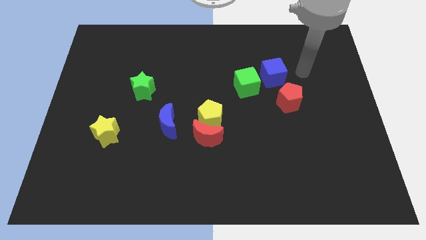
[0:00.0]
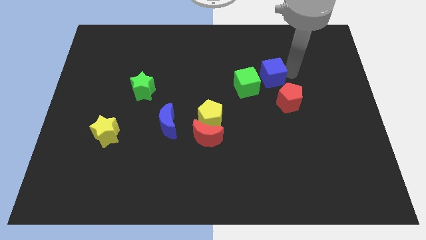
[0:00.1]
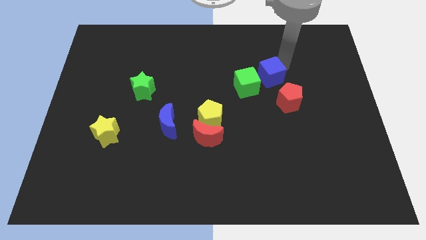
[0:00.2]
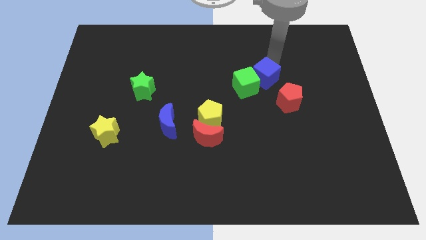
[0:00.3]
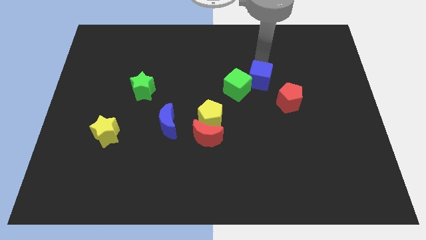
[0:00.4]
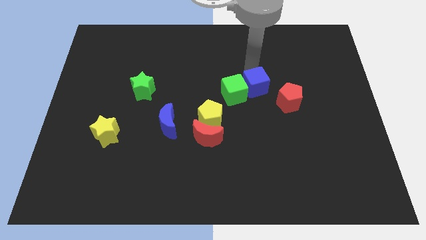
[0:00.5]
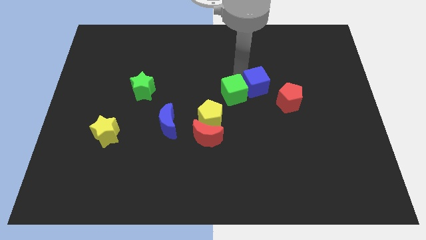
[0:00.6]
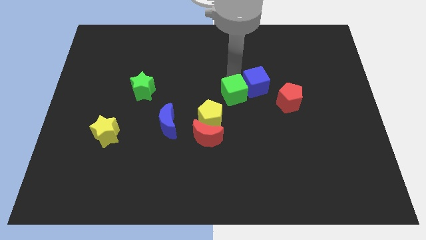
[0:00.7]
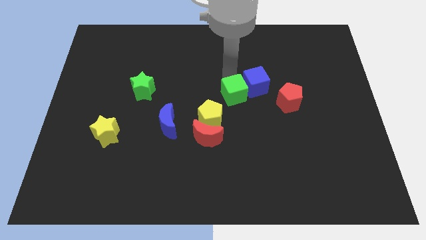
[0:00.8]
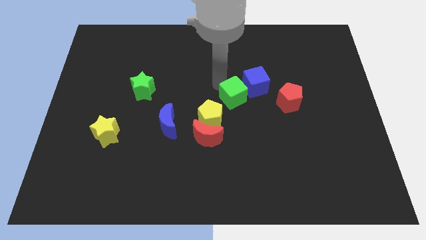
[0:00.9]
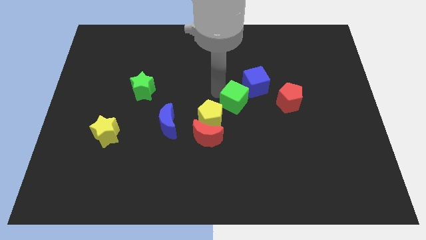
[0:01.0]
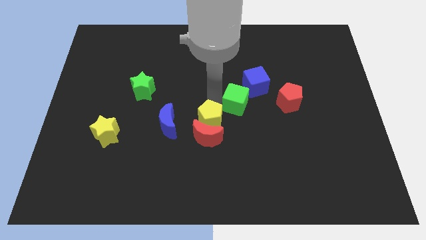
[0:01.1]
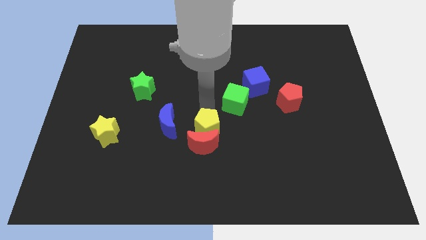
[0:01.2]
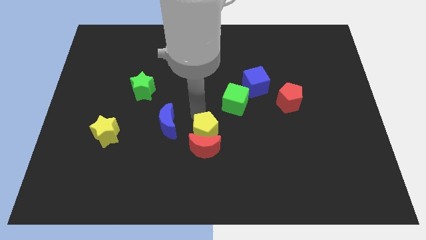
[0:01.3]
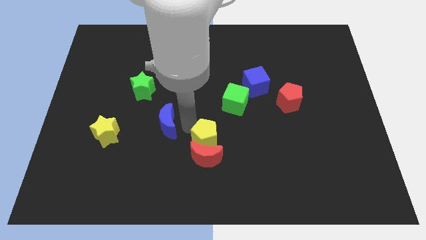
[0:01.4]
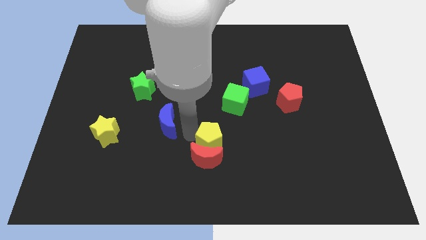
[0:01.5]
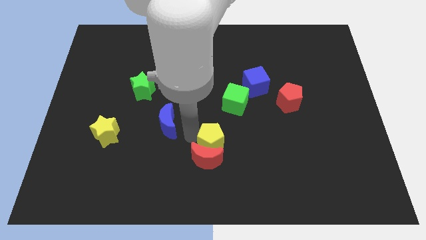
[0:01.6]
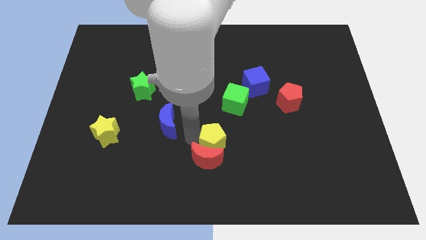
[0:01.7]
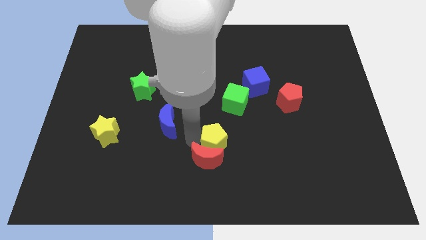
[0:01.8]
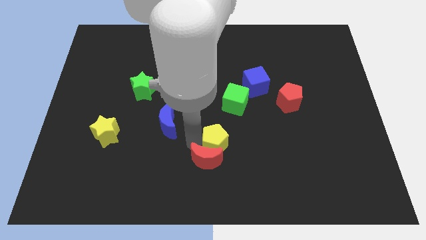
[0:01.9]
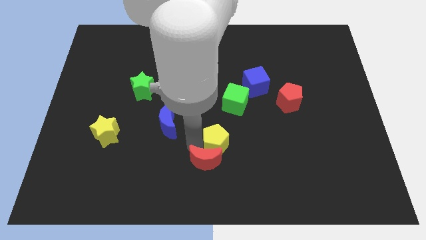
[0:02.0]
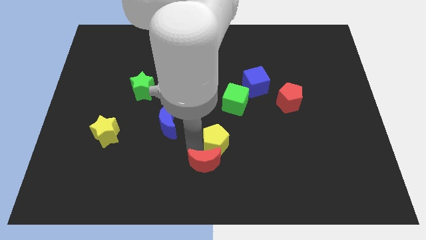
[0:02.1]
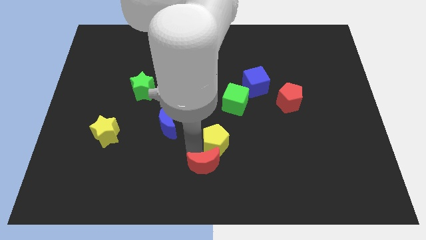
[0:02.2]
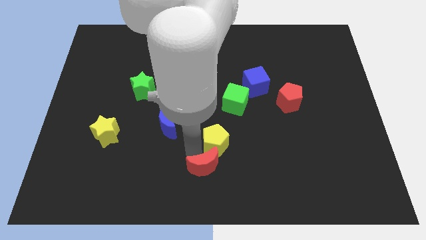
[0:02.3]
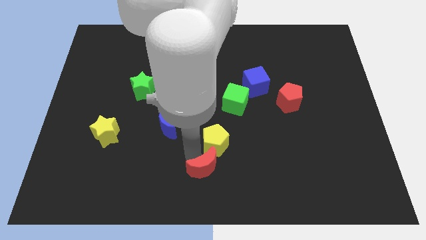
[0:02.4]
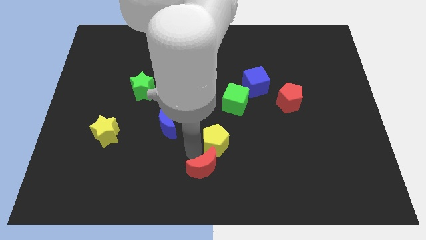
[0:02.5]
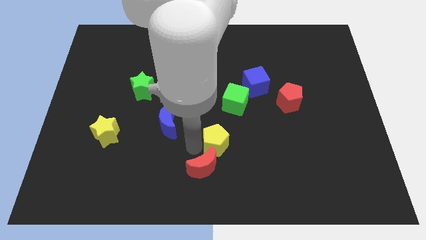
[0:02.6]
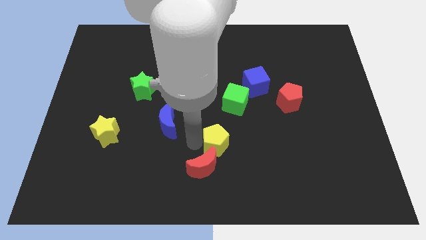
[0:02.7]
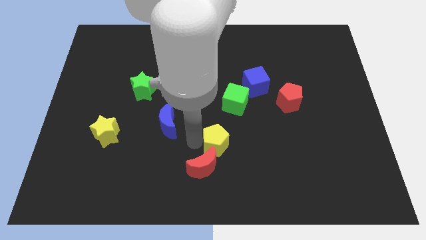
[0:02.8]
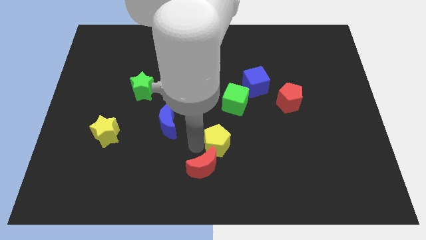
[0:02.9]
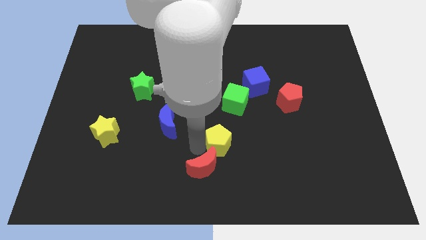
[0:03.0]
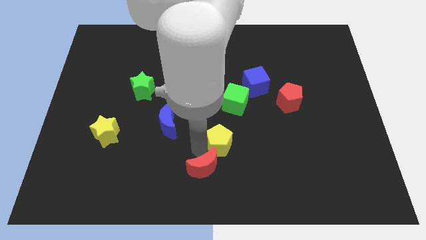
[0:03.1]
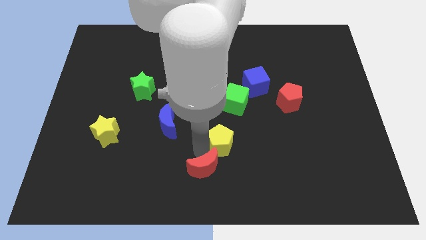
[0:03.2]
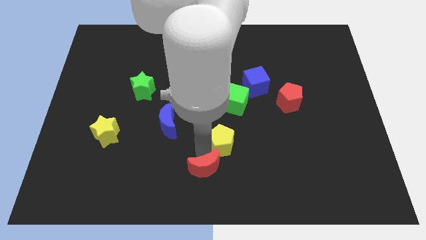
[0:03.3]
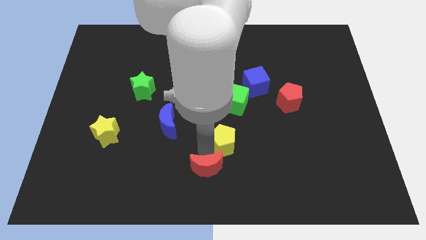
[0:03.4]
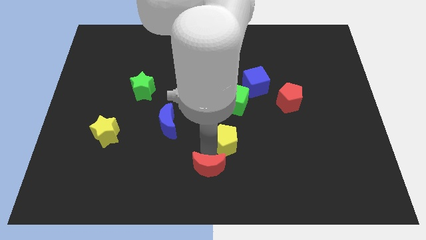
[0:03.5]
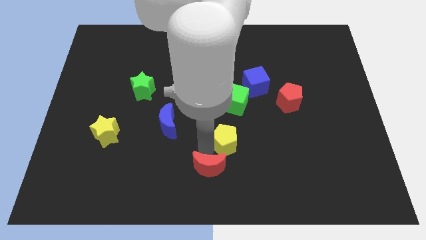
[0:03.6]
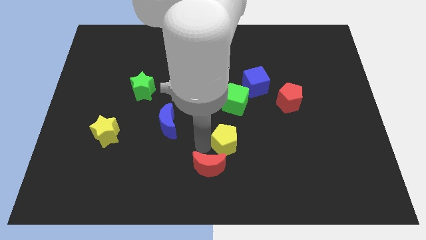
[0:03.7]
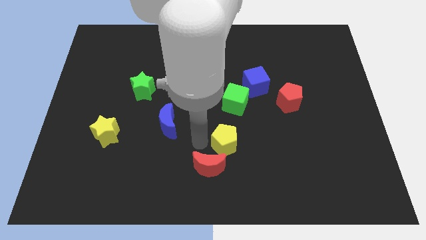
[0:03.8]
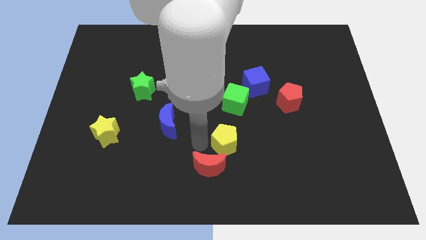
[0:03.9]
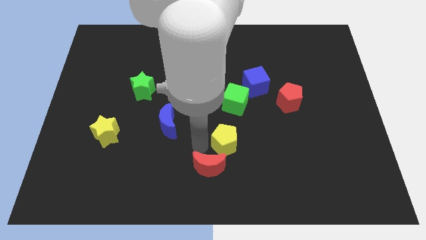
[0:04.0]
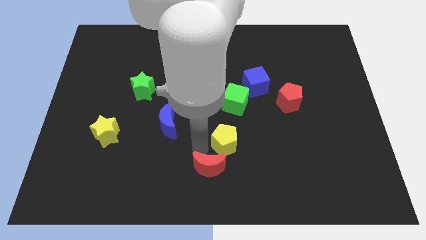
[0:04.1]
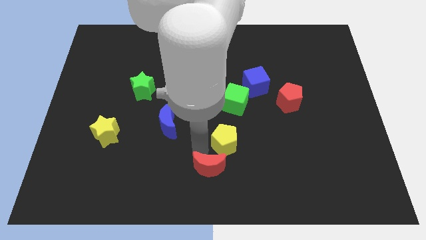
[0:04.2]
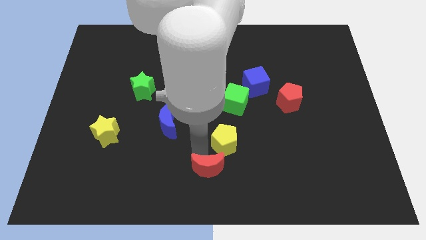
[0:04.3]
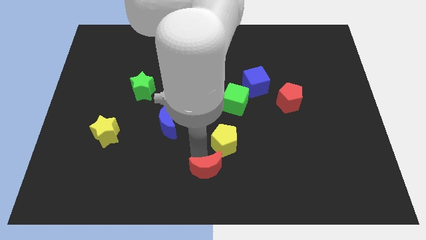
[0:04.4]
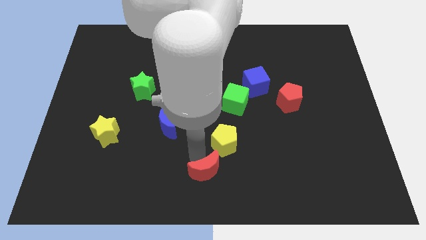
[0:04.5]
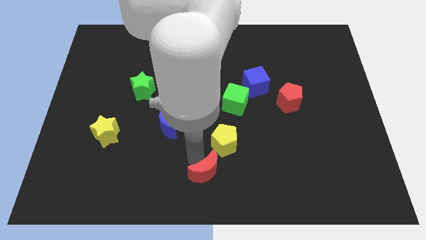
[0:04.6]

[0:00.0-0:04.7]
separate the red moon from the yellow pentagon and blue moon

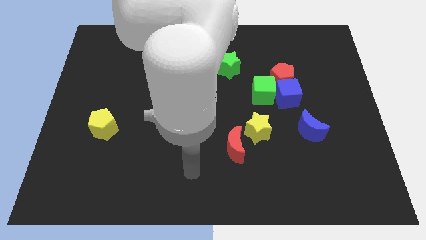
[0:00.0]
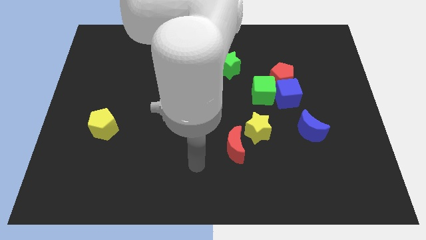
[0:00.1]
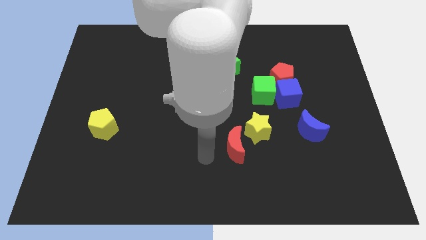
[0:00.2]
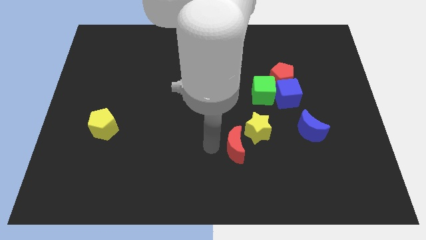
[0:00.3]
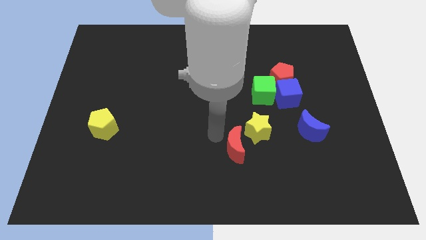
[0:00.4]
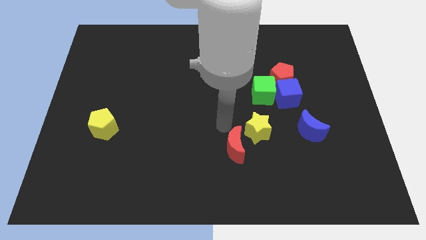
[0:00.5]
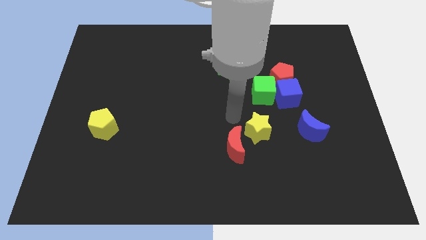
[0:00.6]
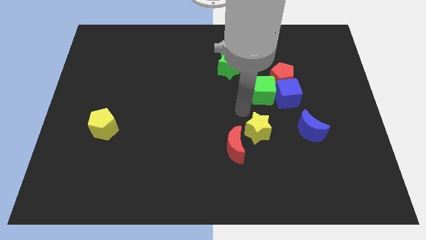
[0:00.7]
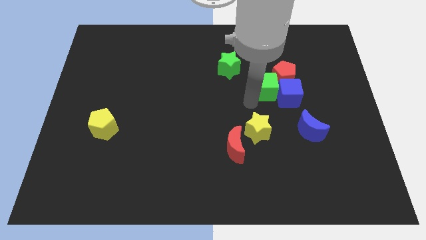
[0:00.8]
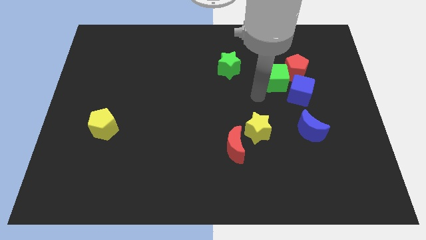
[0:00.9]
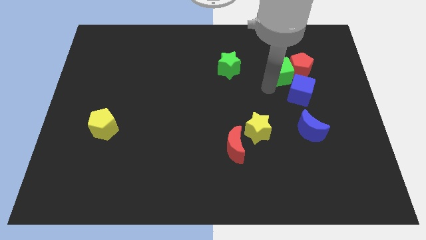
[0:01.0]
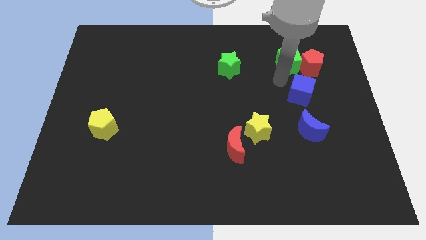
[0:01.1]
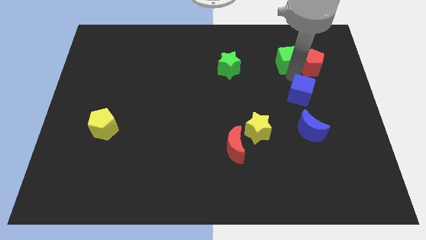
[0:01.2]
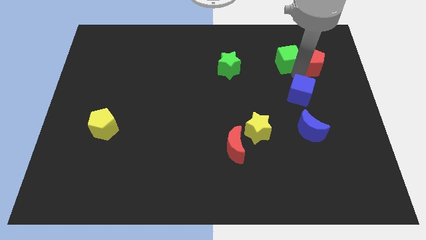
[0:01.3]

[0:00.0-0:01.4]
pull the blue cube apart from the red pentagon and green cube

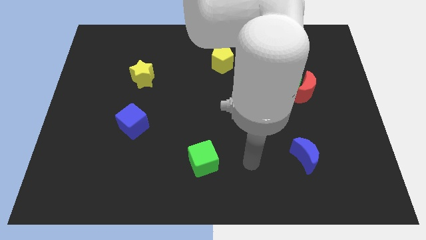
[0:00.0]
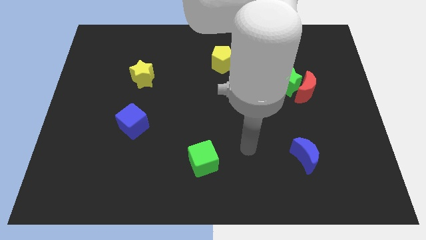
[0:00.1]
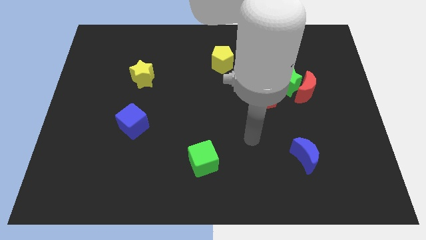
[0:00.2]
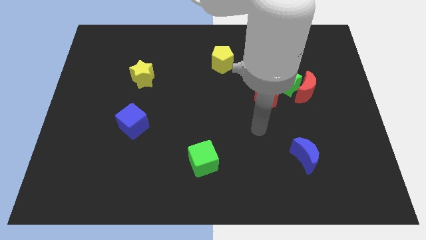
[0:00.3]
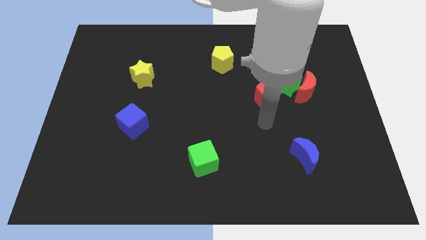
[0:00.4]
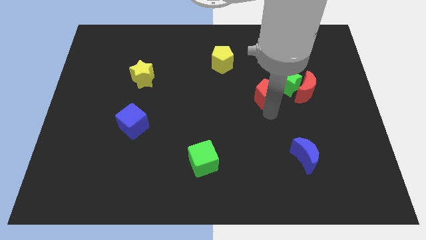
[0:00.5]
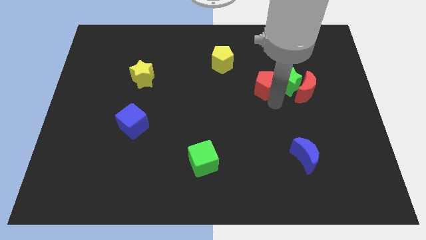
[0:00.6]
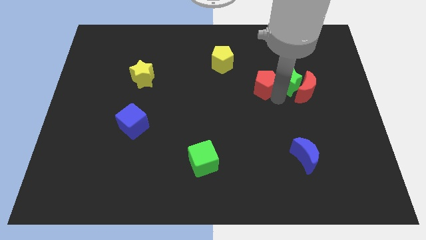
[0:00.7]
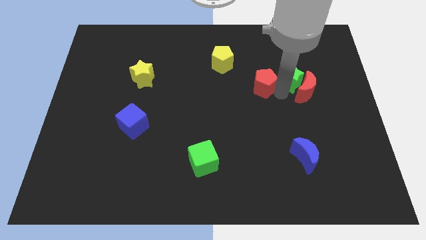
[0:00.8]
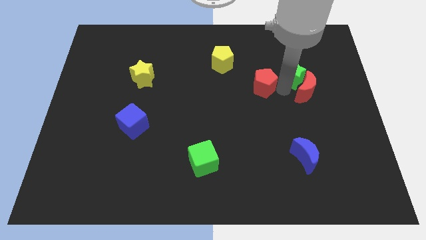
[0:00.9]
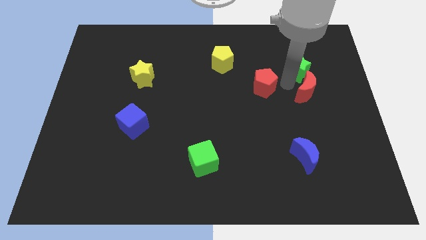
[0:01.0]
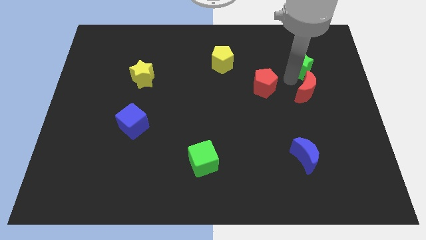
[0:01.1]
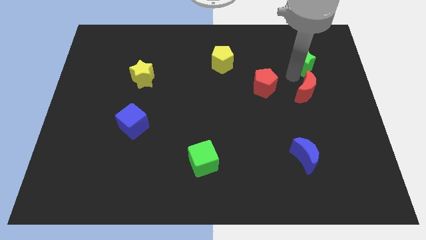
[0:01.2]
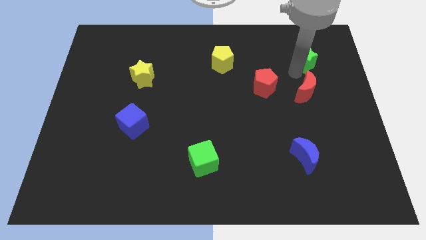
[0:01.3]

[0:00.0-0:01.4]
pull the green star apart from the red moon and red pentagon

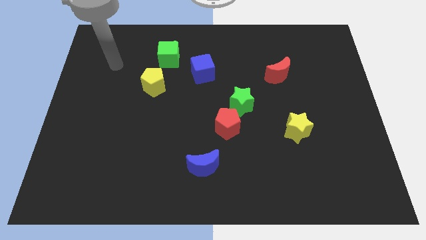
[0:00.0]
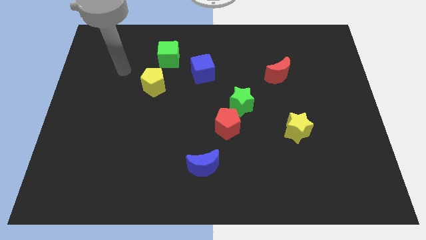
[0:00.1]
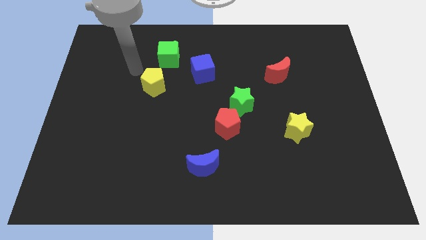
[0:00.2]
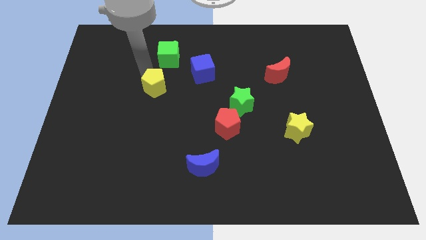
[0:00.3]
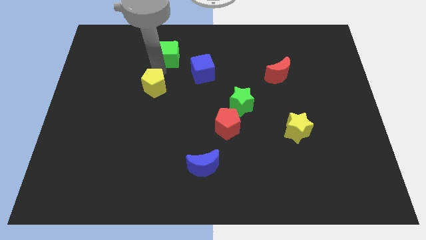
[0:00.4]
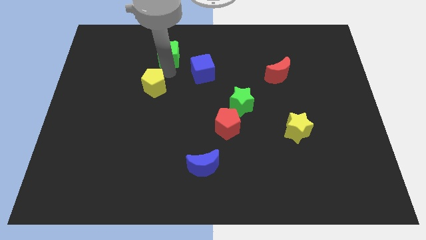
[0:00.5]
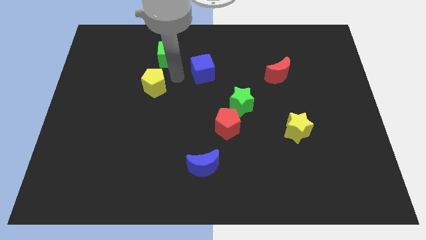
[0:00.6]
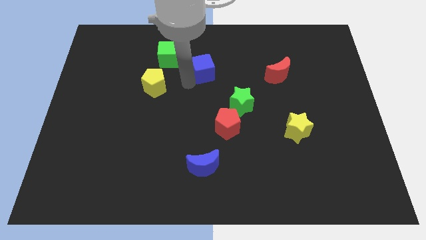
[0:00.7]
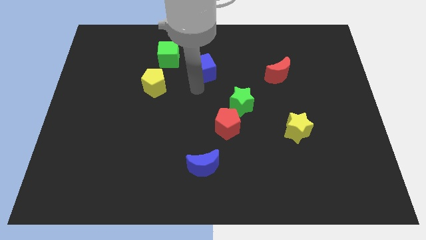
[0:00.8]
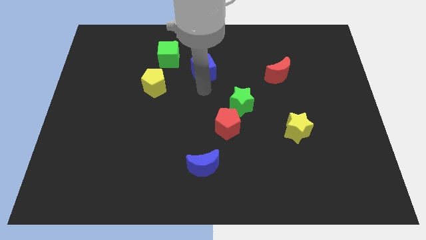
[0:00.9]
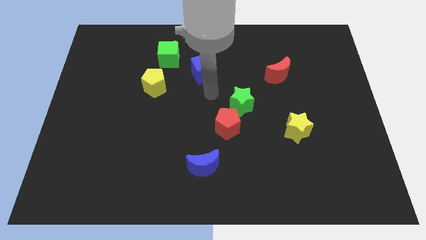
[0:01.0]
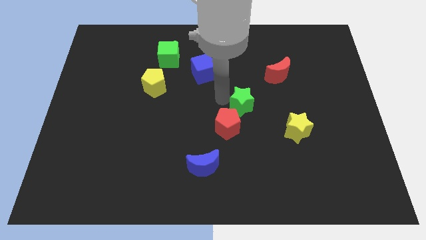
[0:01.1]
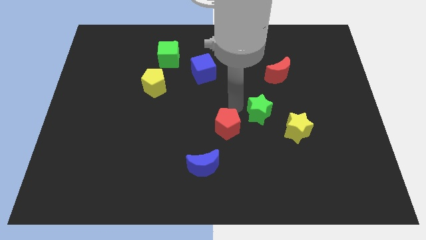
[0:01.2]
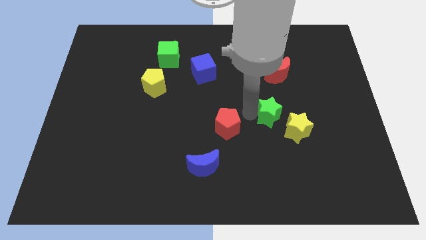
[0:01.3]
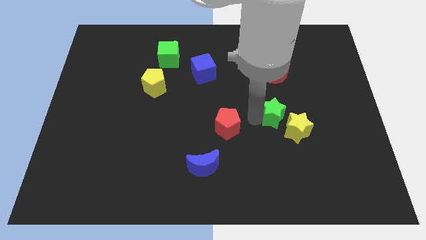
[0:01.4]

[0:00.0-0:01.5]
pull the red pentagon apart from the green star

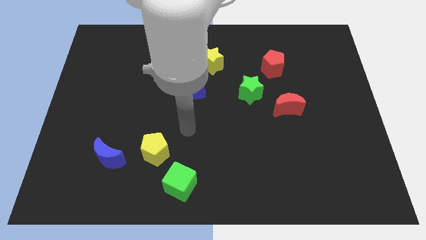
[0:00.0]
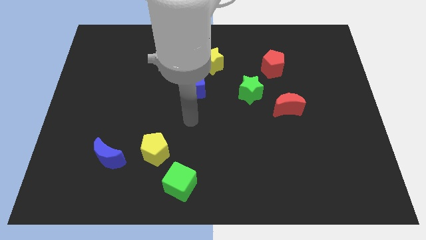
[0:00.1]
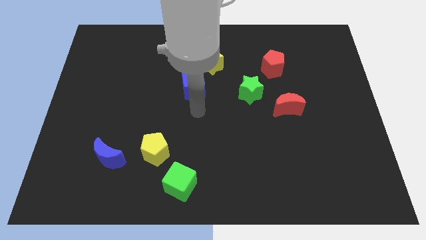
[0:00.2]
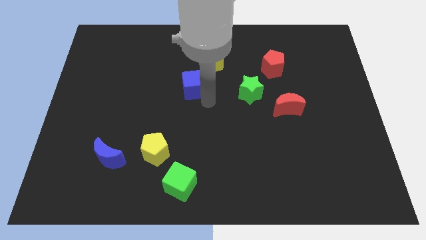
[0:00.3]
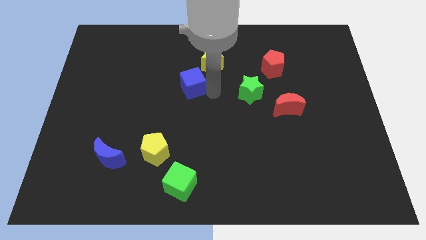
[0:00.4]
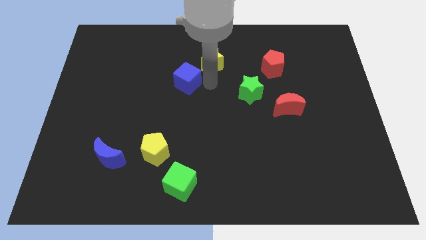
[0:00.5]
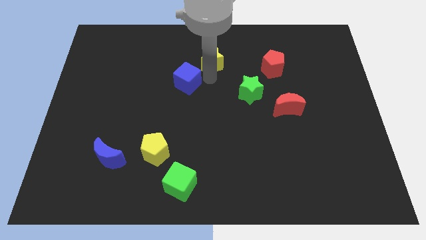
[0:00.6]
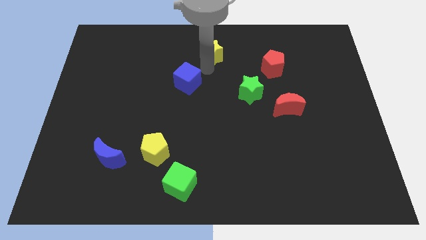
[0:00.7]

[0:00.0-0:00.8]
move the blue cube away from the yellow star
